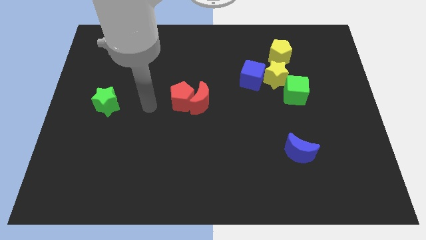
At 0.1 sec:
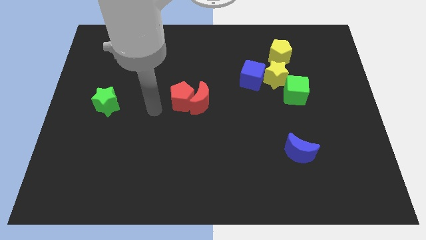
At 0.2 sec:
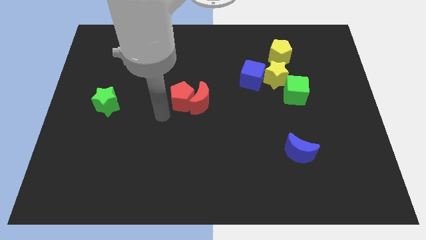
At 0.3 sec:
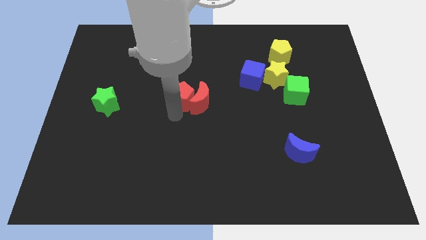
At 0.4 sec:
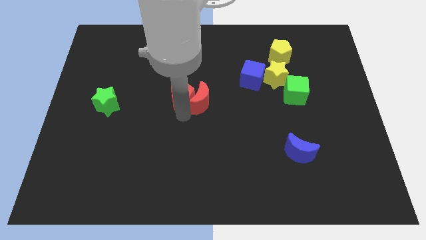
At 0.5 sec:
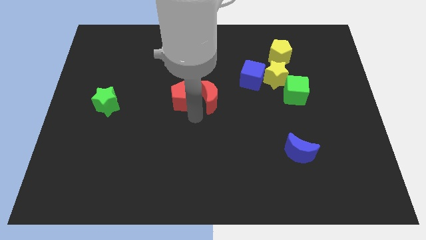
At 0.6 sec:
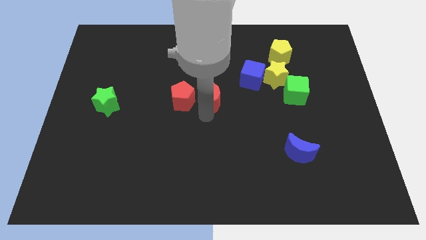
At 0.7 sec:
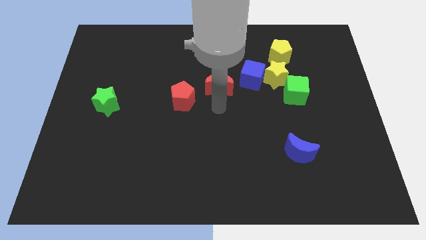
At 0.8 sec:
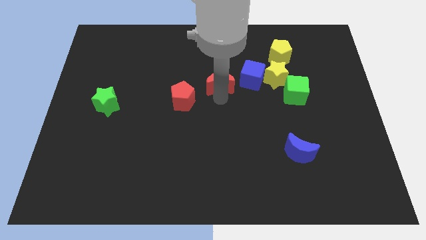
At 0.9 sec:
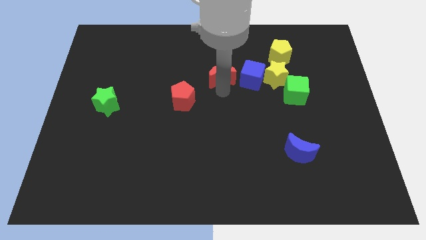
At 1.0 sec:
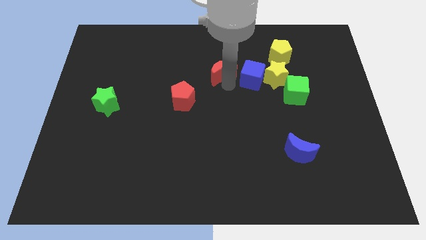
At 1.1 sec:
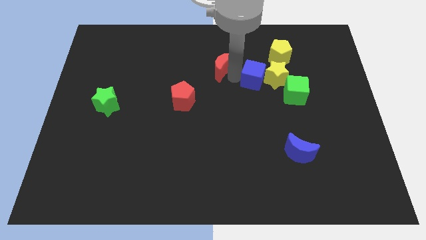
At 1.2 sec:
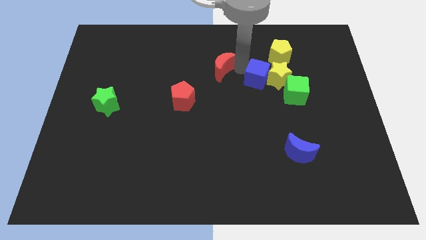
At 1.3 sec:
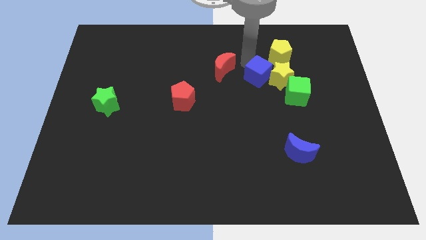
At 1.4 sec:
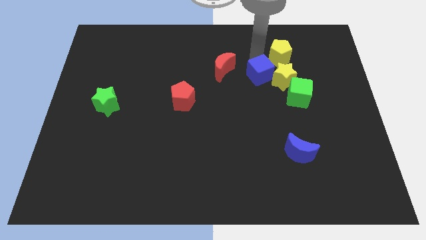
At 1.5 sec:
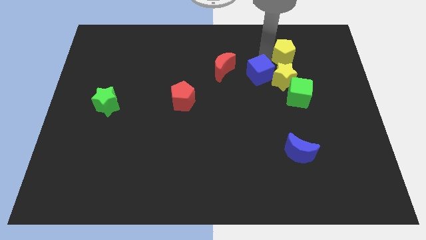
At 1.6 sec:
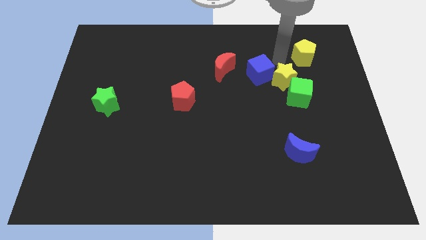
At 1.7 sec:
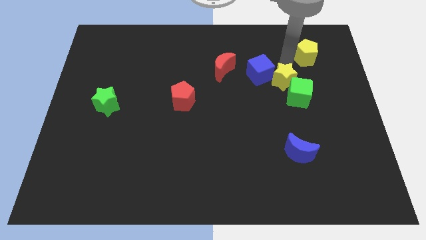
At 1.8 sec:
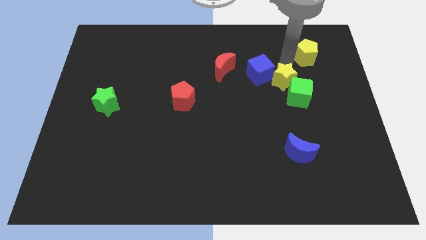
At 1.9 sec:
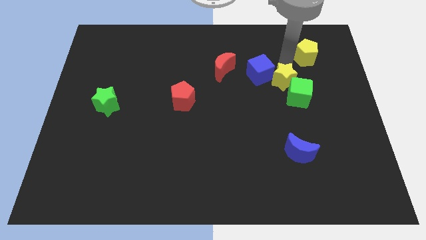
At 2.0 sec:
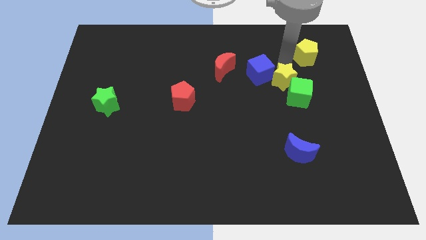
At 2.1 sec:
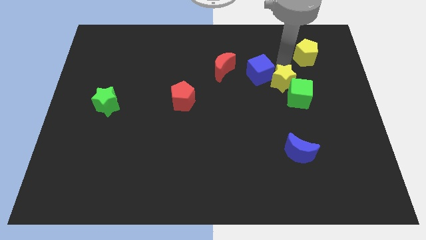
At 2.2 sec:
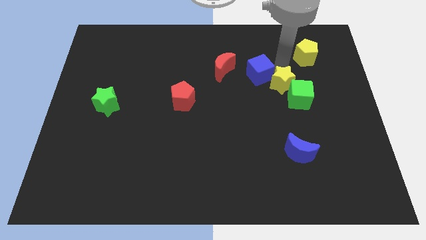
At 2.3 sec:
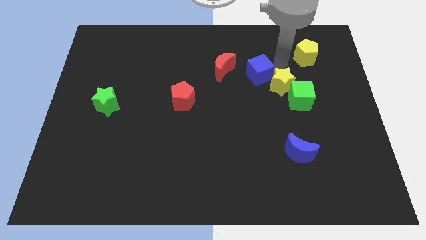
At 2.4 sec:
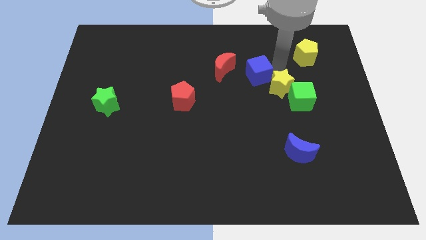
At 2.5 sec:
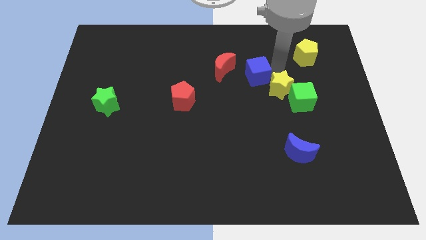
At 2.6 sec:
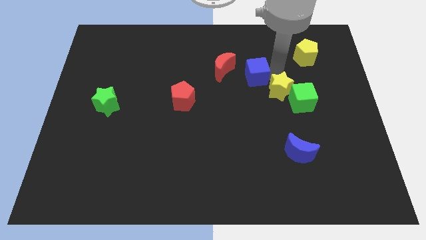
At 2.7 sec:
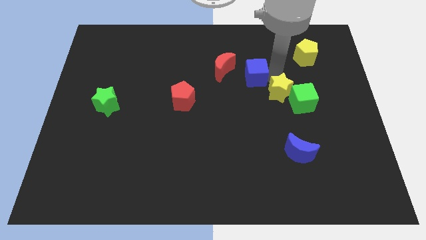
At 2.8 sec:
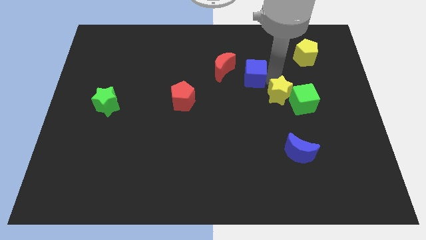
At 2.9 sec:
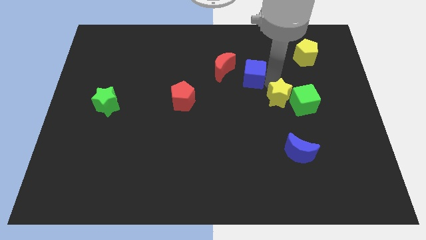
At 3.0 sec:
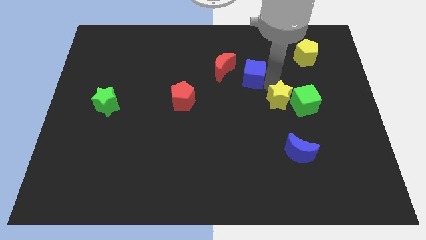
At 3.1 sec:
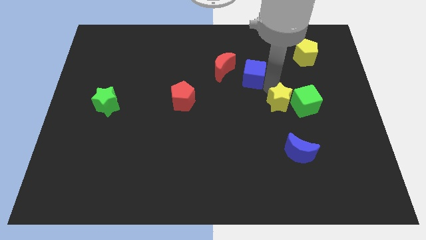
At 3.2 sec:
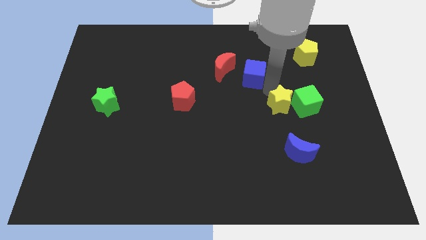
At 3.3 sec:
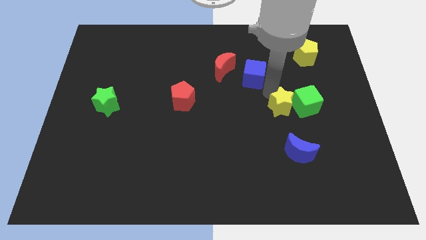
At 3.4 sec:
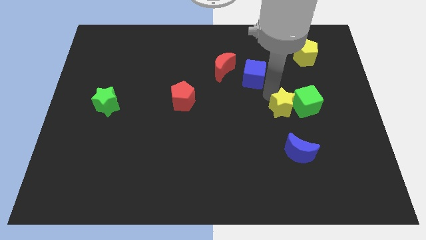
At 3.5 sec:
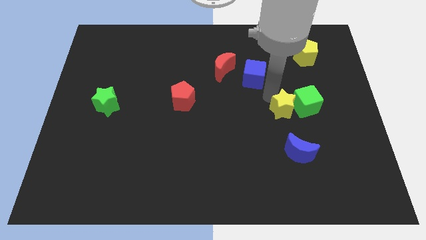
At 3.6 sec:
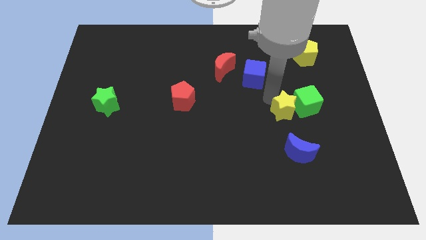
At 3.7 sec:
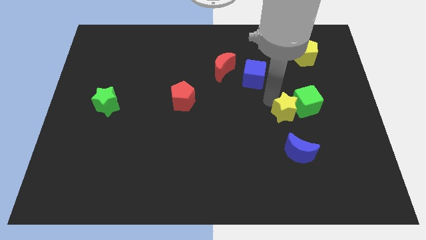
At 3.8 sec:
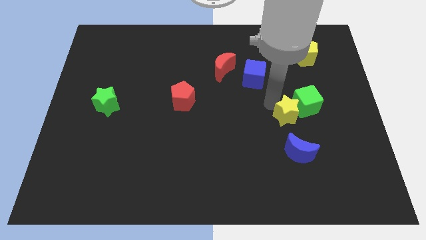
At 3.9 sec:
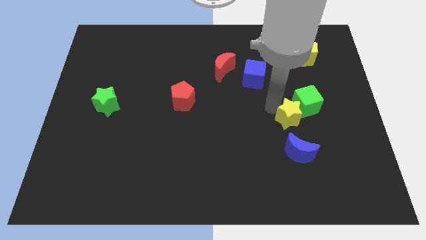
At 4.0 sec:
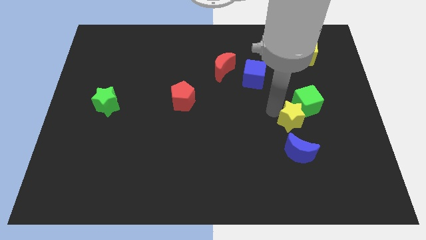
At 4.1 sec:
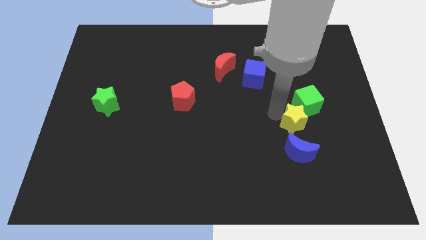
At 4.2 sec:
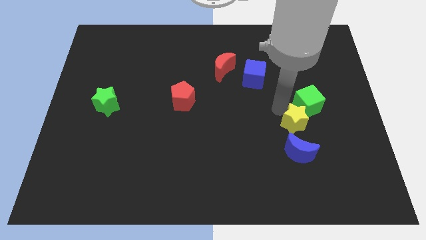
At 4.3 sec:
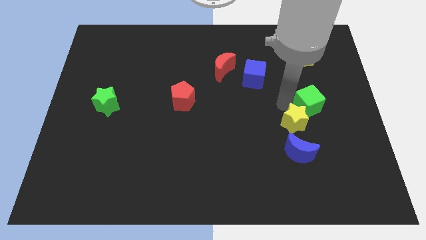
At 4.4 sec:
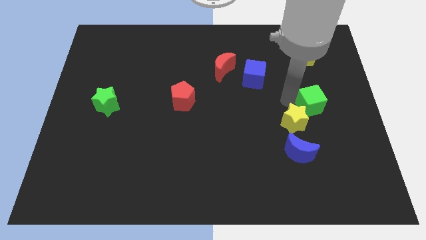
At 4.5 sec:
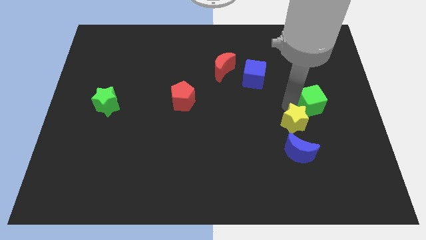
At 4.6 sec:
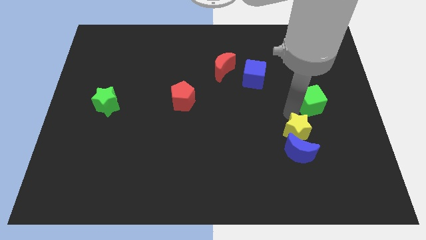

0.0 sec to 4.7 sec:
move the yellow star next to the blue moon

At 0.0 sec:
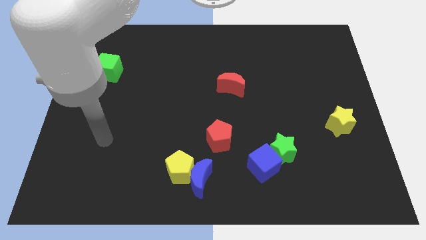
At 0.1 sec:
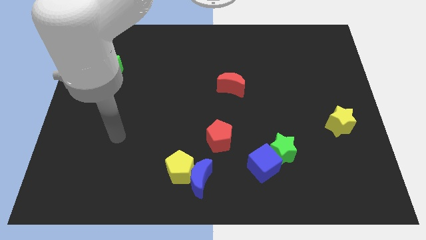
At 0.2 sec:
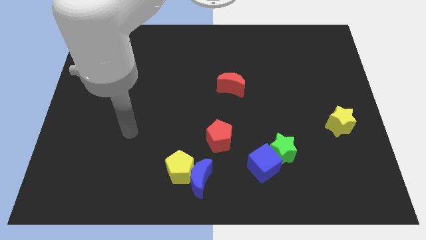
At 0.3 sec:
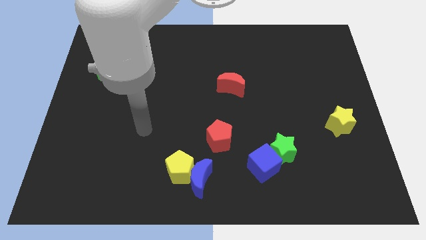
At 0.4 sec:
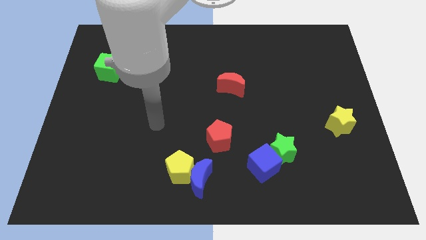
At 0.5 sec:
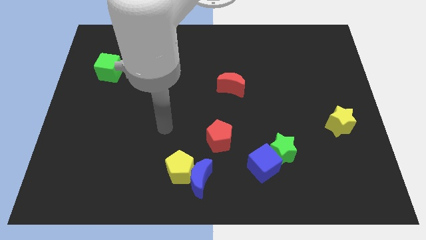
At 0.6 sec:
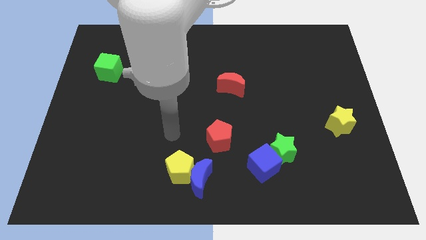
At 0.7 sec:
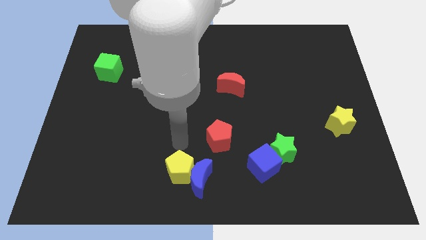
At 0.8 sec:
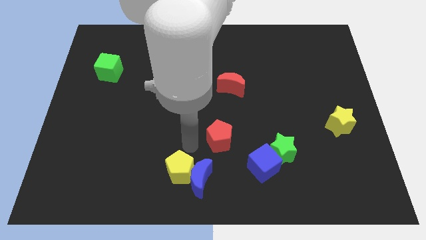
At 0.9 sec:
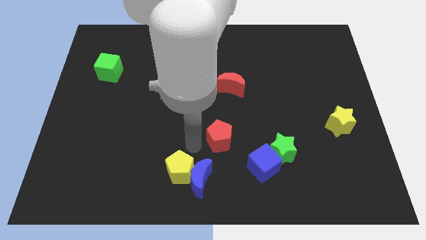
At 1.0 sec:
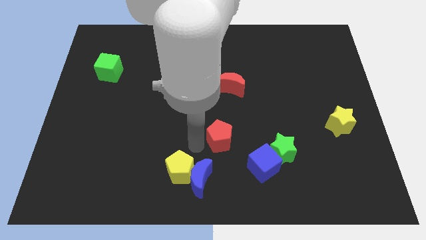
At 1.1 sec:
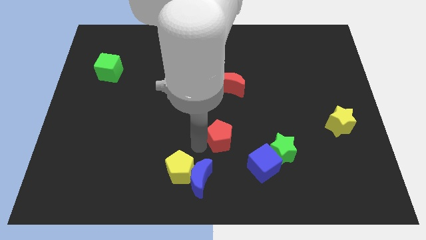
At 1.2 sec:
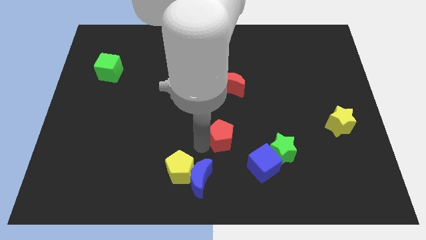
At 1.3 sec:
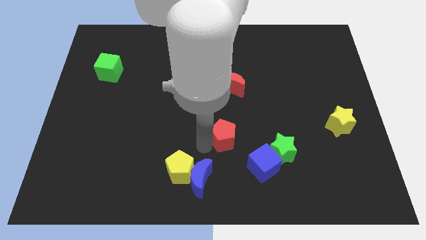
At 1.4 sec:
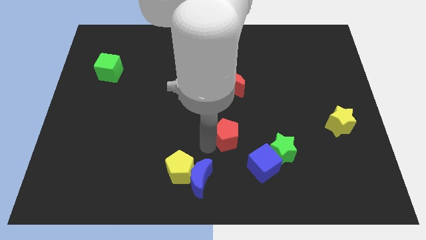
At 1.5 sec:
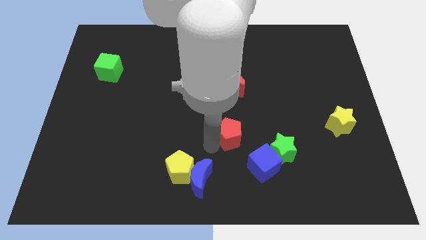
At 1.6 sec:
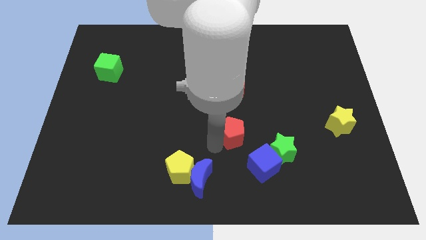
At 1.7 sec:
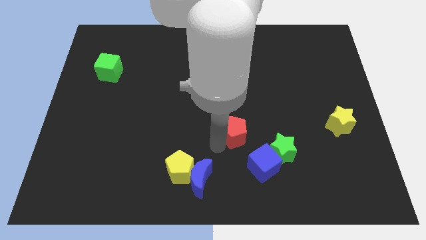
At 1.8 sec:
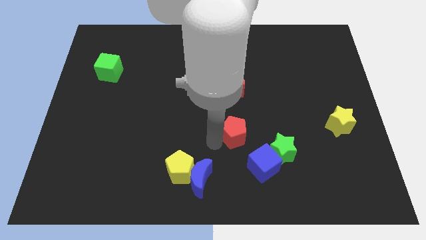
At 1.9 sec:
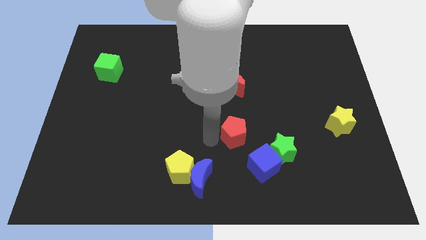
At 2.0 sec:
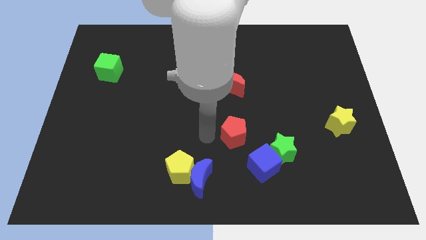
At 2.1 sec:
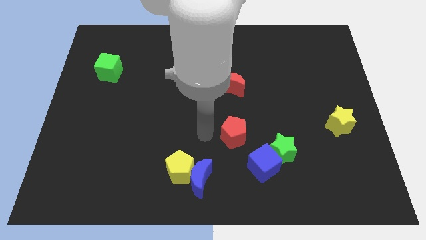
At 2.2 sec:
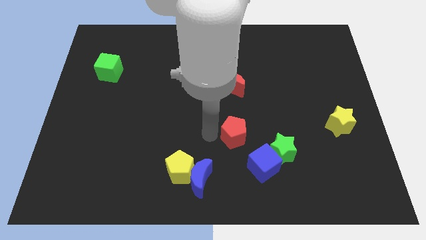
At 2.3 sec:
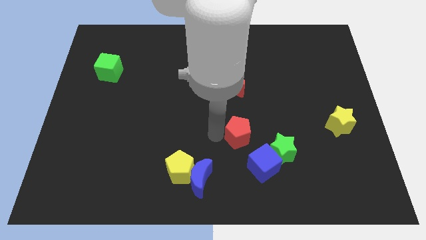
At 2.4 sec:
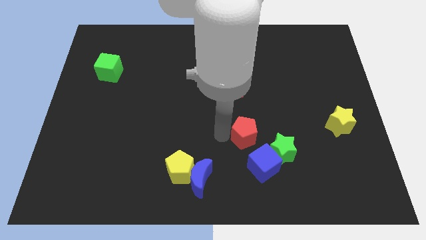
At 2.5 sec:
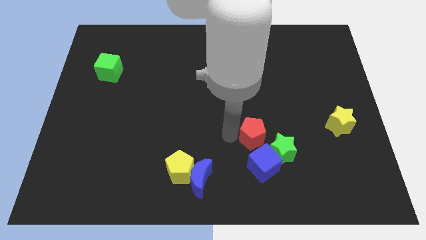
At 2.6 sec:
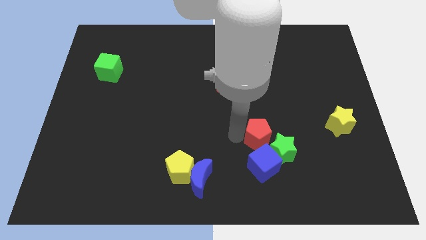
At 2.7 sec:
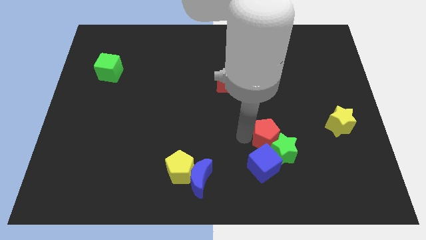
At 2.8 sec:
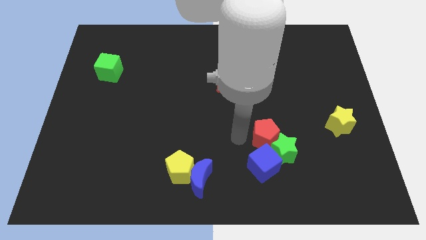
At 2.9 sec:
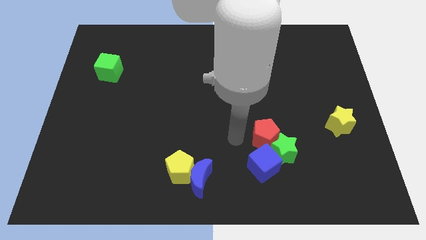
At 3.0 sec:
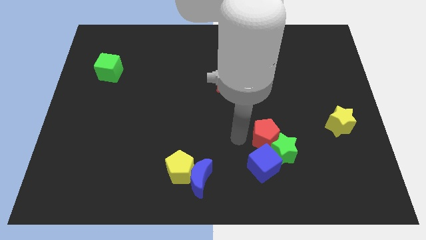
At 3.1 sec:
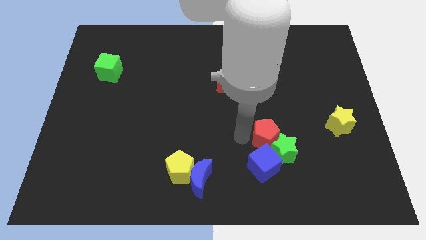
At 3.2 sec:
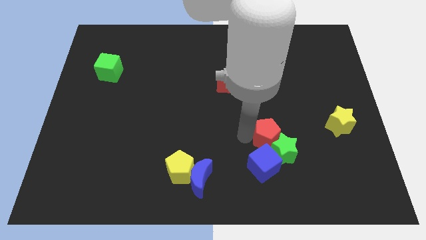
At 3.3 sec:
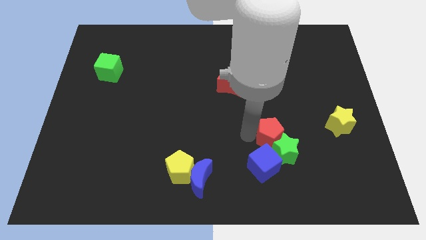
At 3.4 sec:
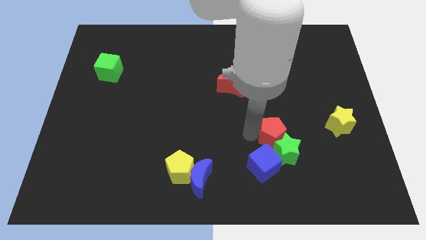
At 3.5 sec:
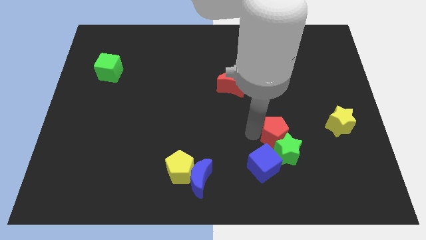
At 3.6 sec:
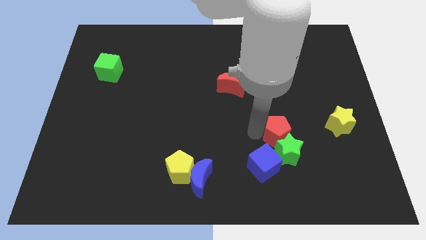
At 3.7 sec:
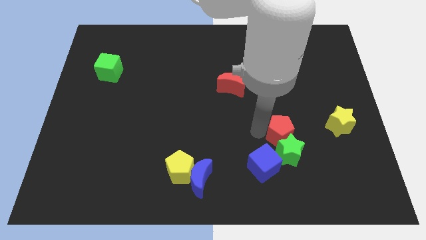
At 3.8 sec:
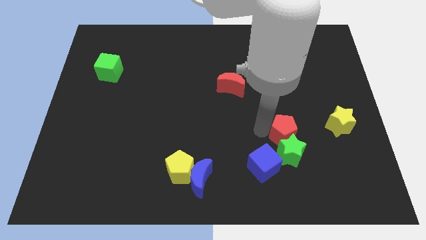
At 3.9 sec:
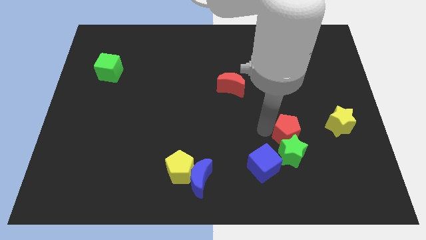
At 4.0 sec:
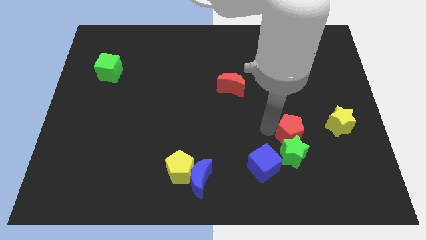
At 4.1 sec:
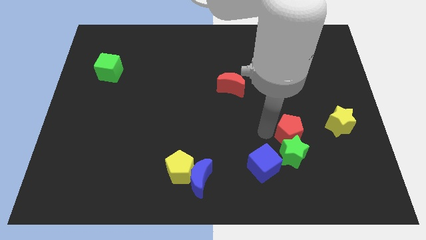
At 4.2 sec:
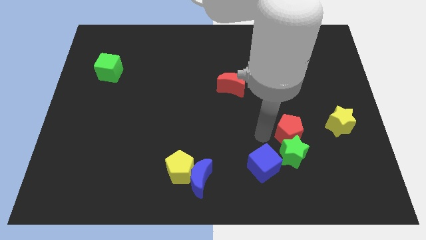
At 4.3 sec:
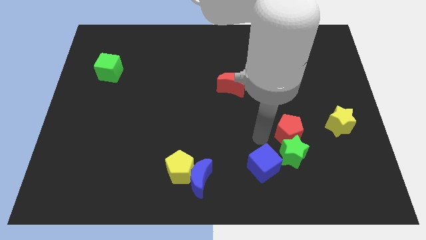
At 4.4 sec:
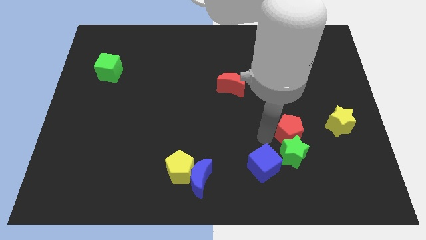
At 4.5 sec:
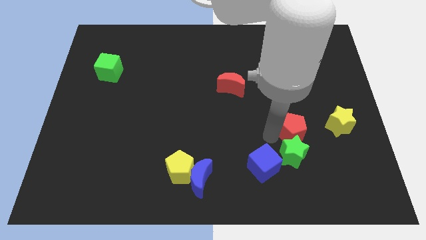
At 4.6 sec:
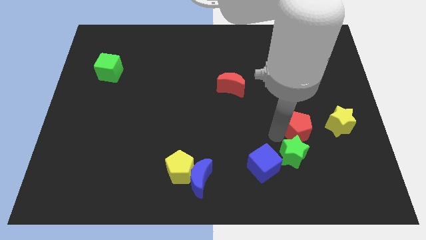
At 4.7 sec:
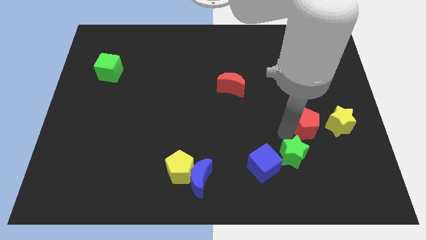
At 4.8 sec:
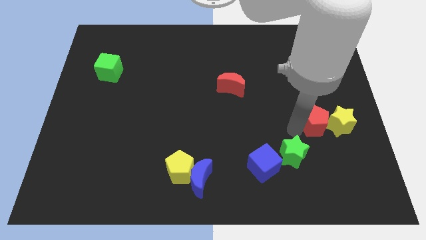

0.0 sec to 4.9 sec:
push the red pentagon next to the yellow star
